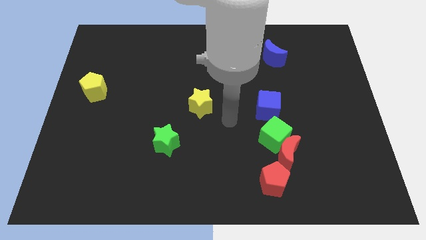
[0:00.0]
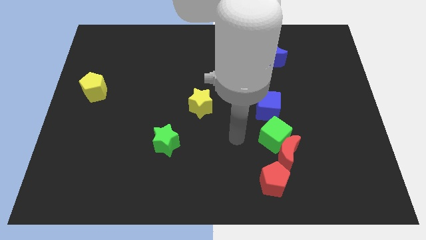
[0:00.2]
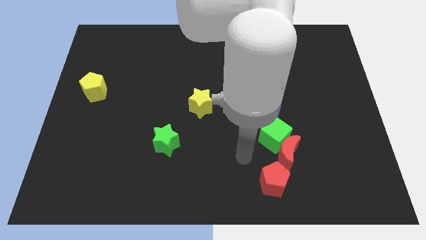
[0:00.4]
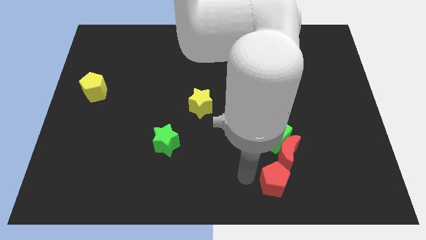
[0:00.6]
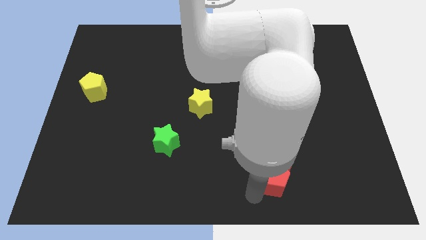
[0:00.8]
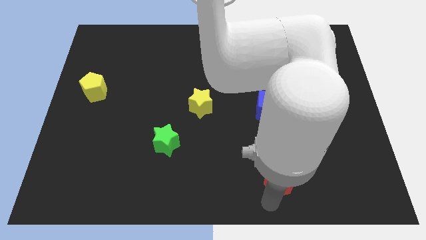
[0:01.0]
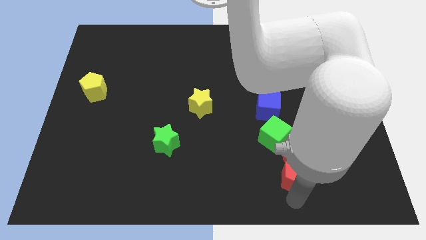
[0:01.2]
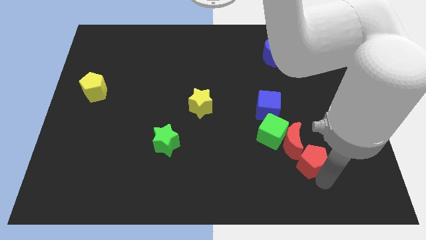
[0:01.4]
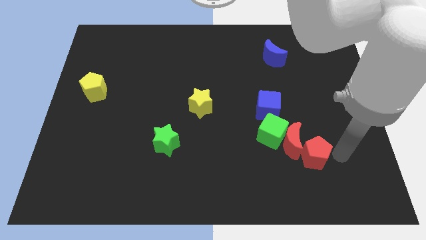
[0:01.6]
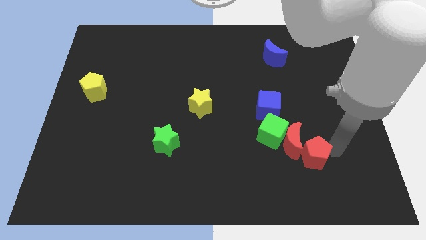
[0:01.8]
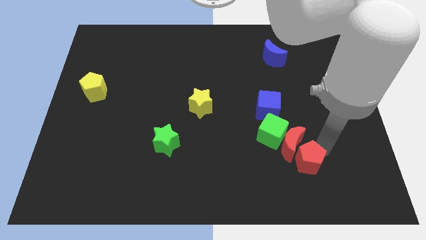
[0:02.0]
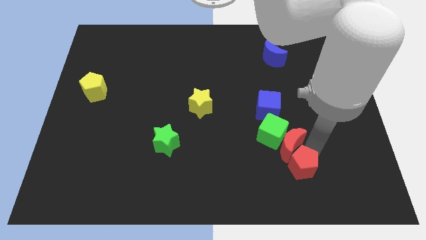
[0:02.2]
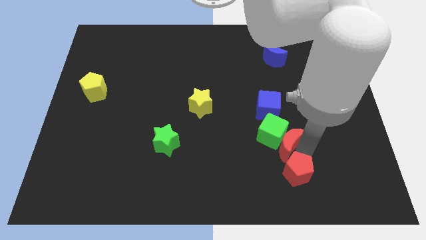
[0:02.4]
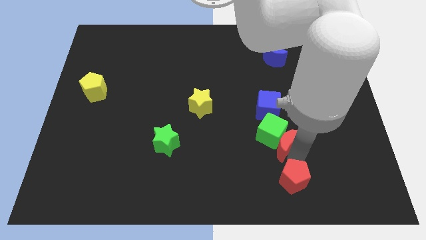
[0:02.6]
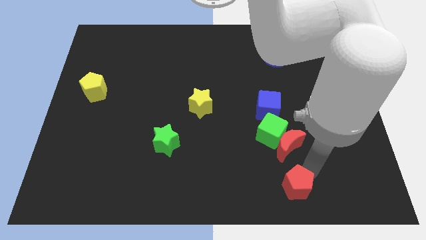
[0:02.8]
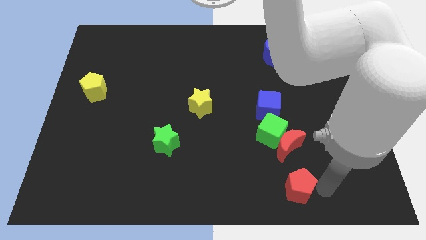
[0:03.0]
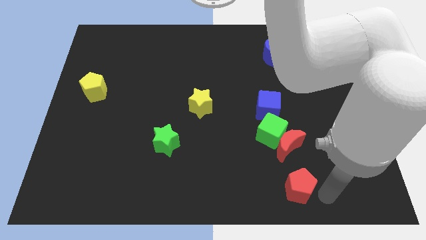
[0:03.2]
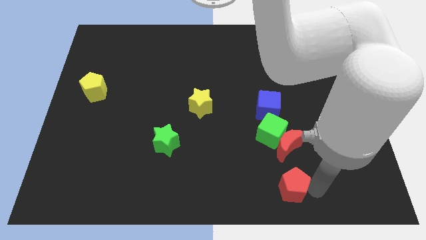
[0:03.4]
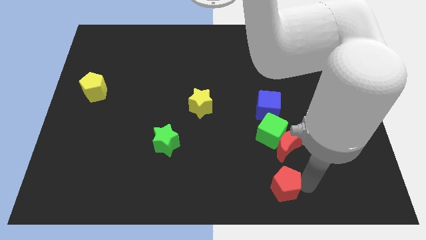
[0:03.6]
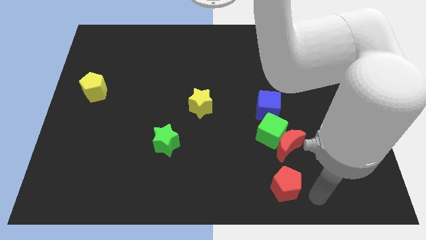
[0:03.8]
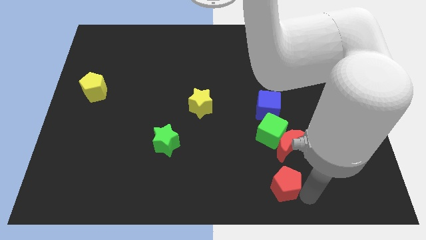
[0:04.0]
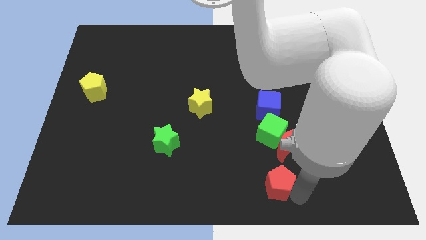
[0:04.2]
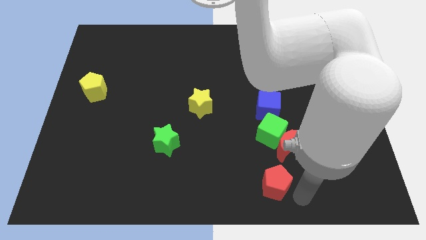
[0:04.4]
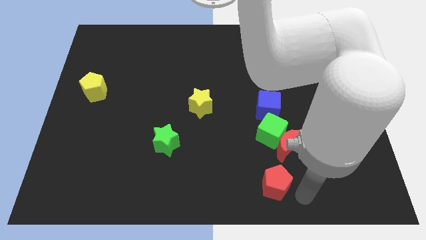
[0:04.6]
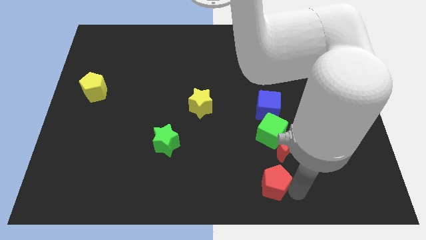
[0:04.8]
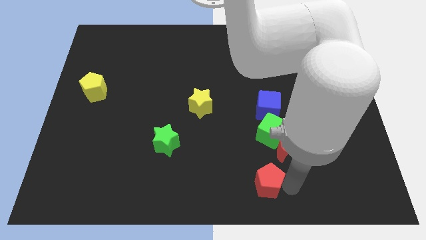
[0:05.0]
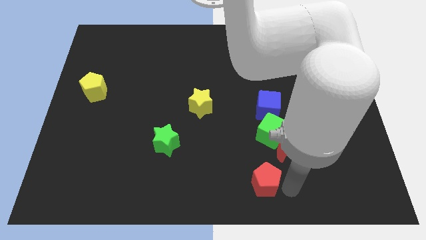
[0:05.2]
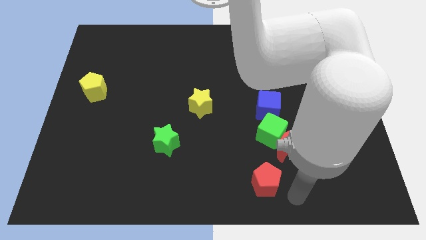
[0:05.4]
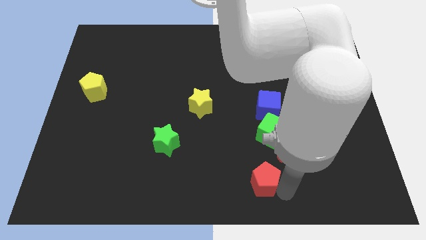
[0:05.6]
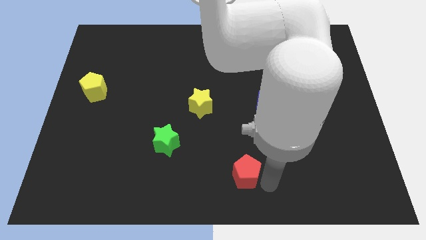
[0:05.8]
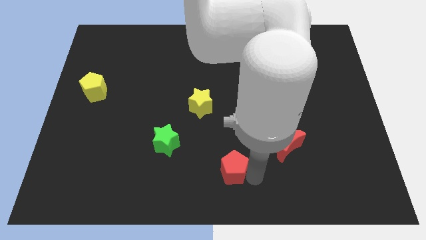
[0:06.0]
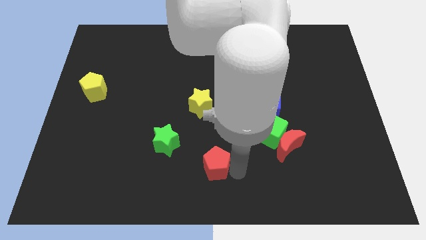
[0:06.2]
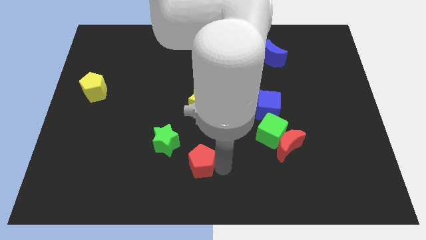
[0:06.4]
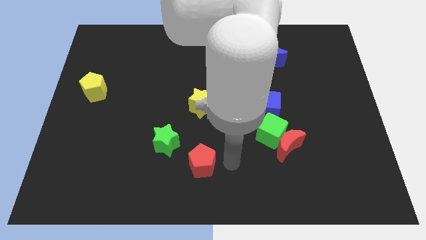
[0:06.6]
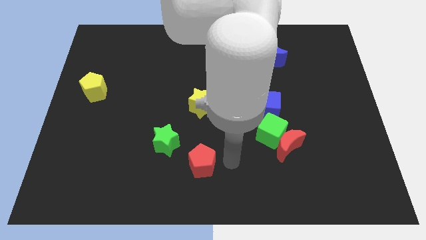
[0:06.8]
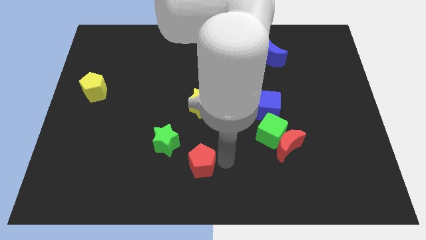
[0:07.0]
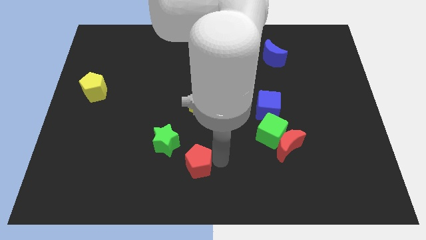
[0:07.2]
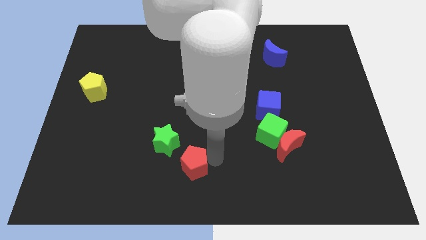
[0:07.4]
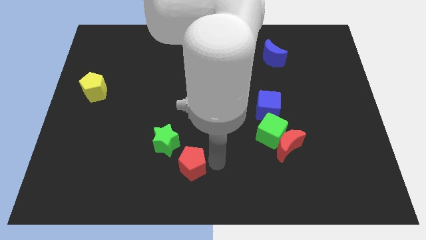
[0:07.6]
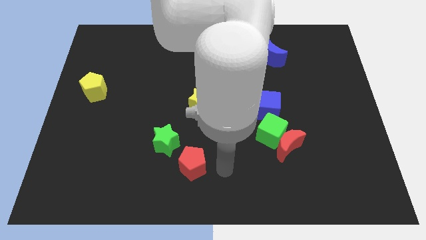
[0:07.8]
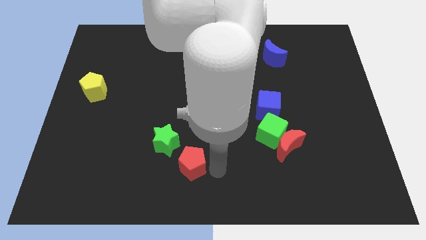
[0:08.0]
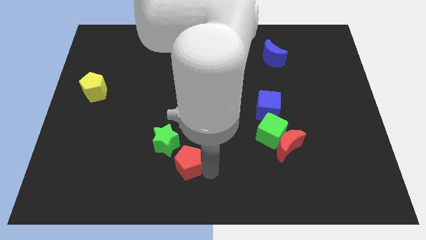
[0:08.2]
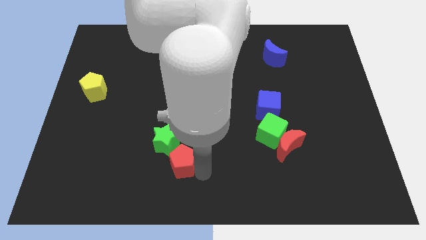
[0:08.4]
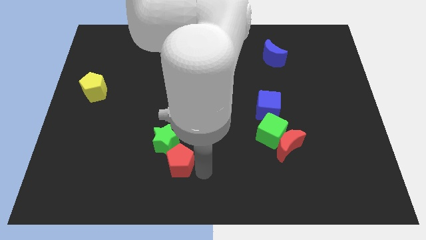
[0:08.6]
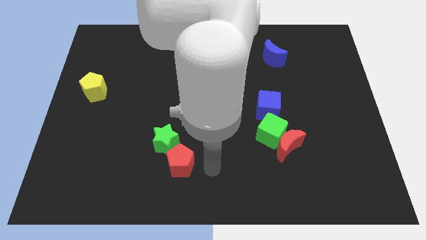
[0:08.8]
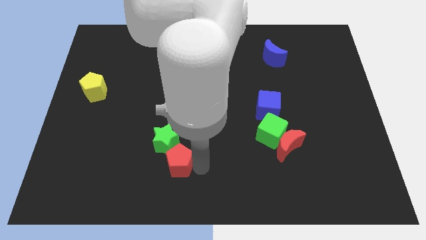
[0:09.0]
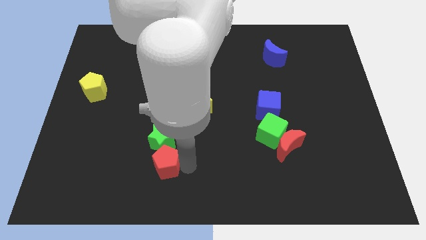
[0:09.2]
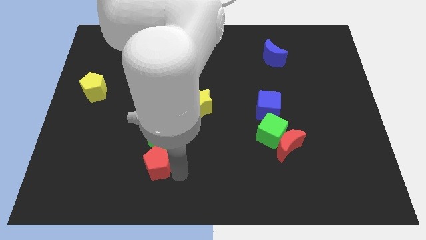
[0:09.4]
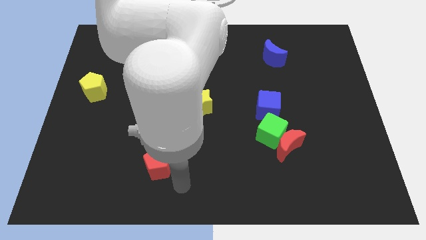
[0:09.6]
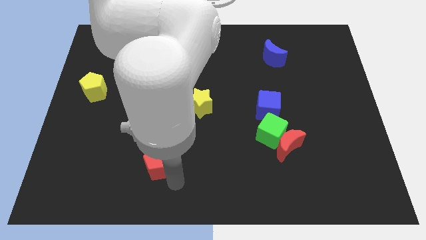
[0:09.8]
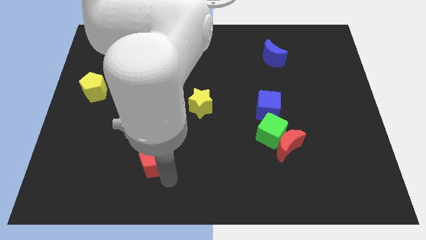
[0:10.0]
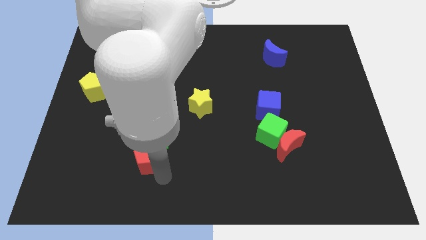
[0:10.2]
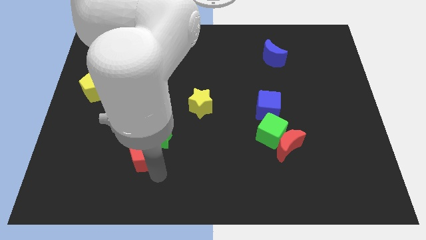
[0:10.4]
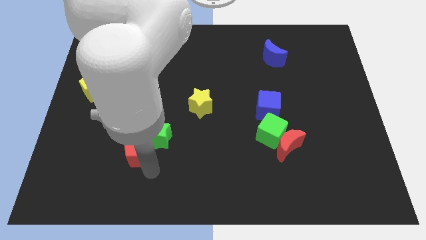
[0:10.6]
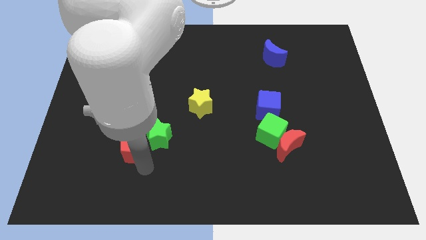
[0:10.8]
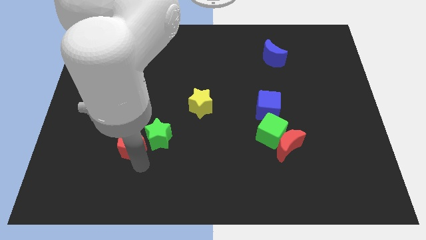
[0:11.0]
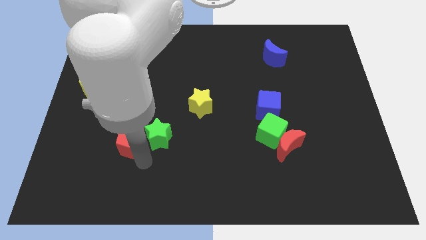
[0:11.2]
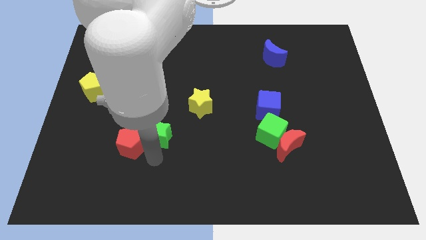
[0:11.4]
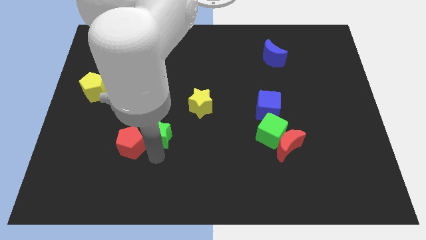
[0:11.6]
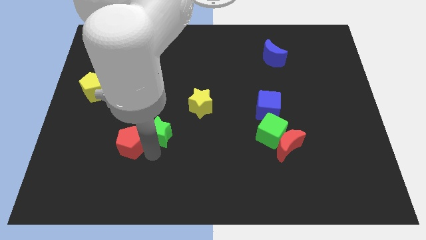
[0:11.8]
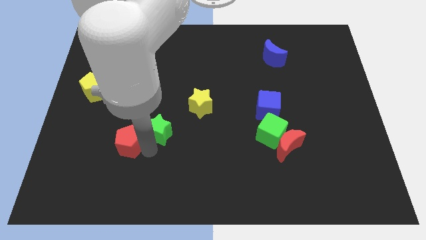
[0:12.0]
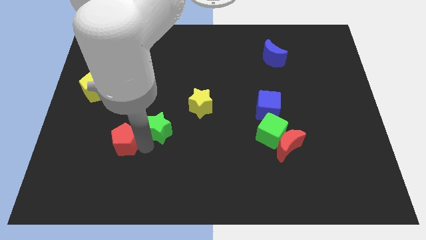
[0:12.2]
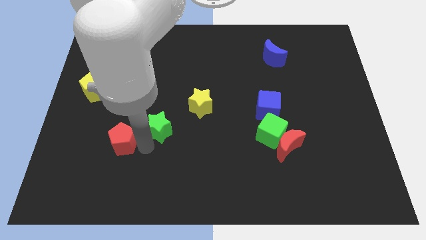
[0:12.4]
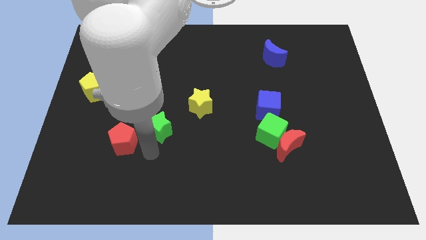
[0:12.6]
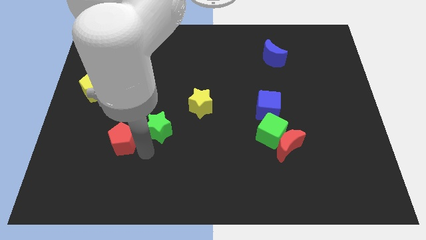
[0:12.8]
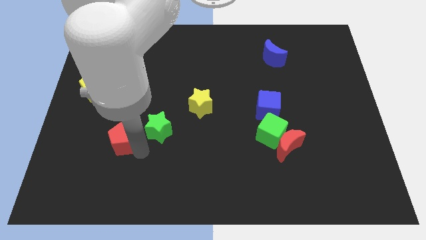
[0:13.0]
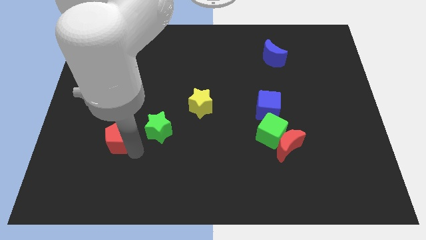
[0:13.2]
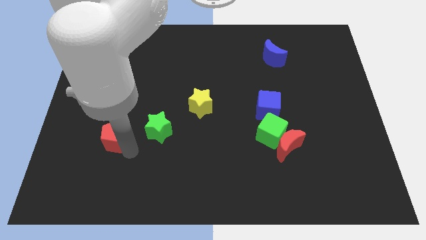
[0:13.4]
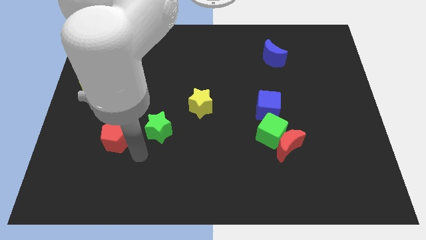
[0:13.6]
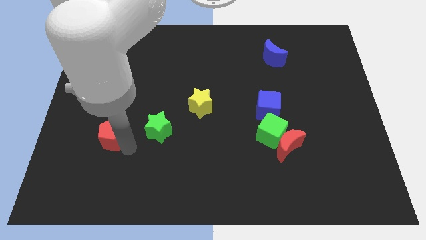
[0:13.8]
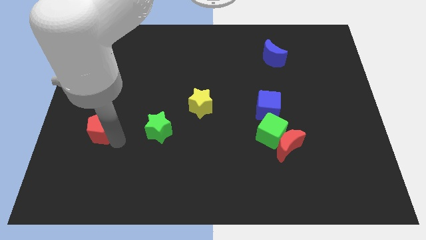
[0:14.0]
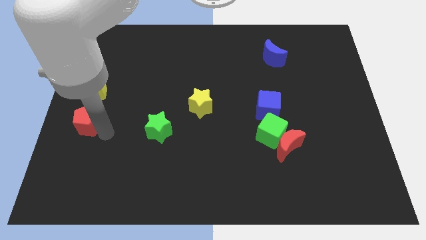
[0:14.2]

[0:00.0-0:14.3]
push the red pentagon to the center left
